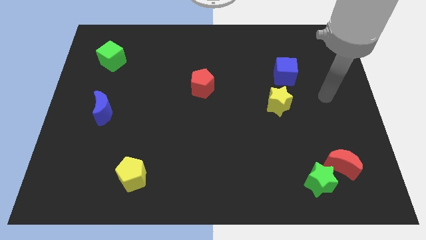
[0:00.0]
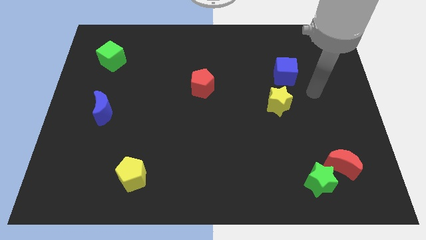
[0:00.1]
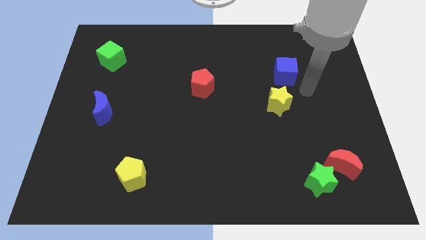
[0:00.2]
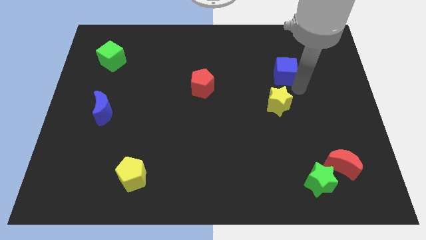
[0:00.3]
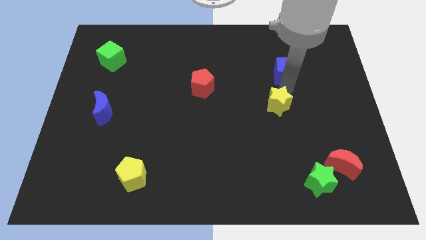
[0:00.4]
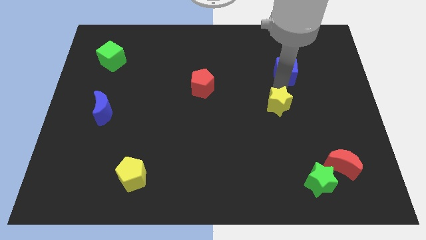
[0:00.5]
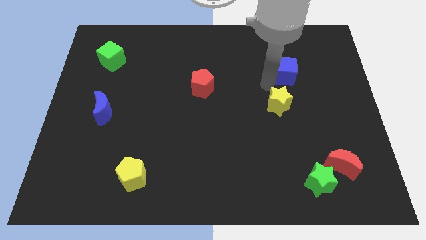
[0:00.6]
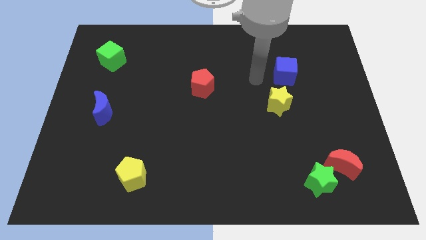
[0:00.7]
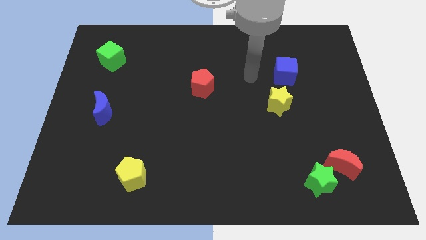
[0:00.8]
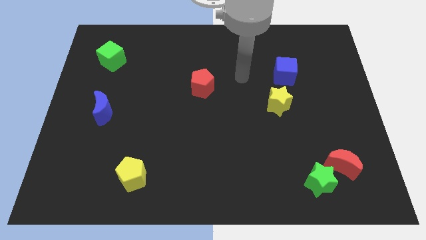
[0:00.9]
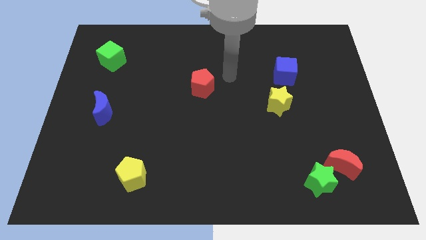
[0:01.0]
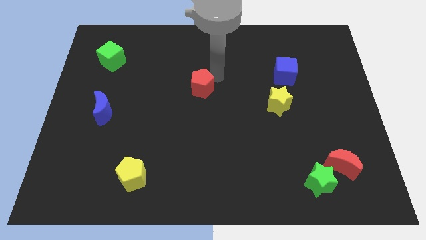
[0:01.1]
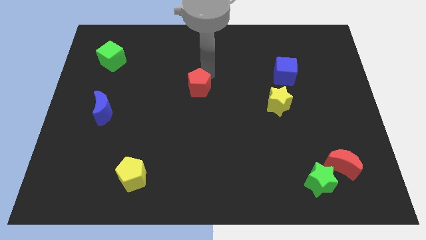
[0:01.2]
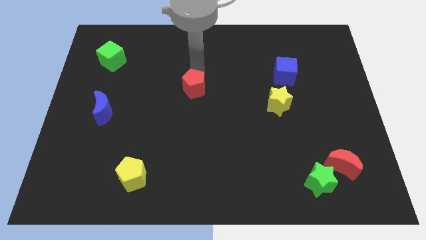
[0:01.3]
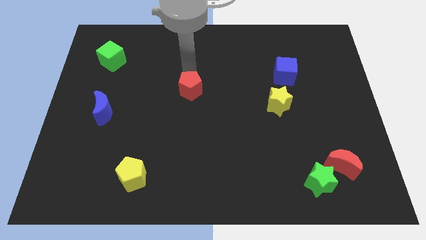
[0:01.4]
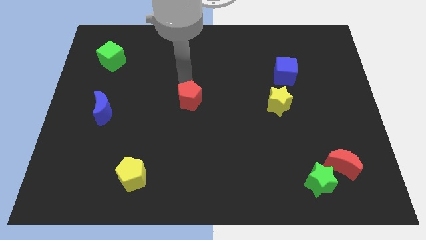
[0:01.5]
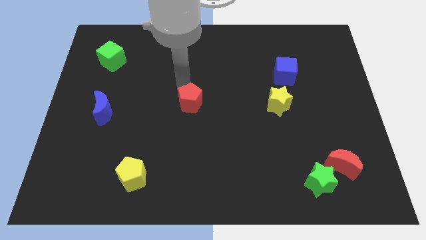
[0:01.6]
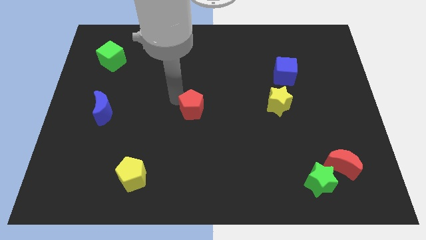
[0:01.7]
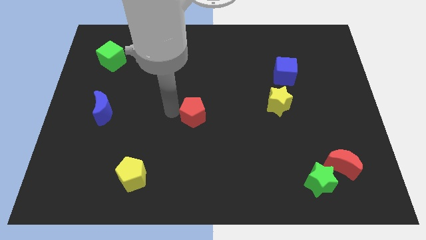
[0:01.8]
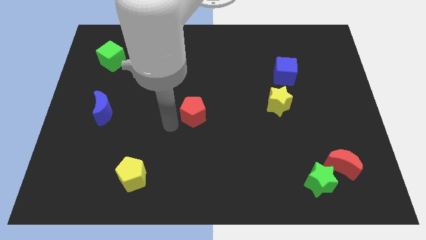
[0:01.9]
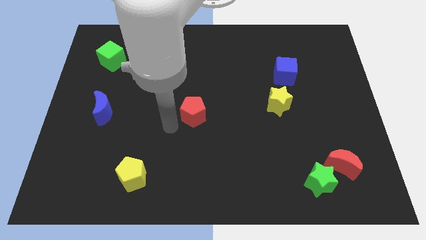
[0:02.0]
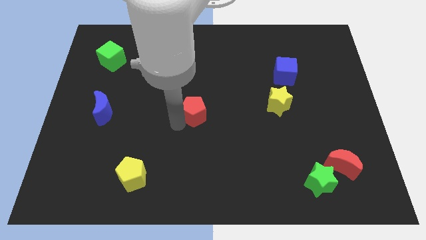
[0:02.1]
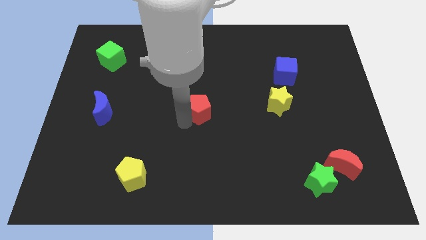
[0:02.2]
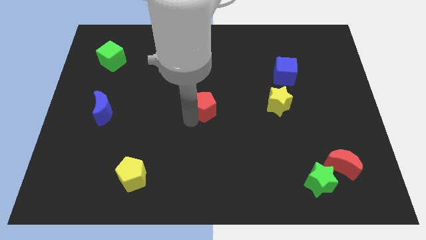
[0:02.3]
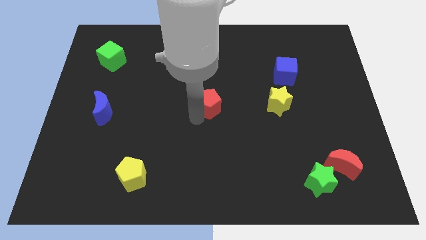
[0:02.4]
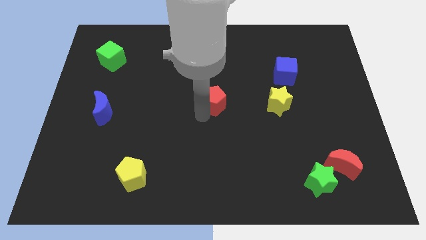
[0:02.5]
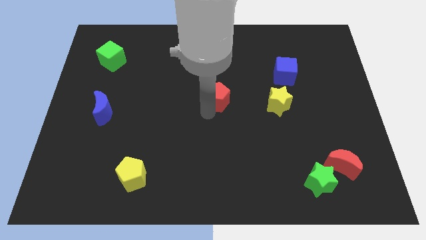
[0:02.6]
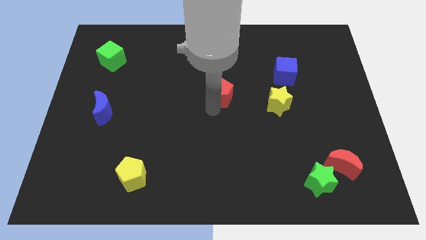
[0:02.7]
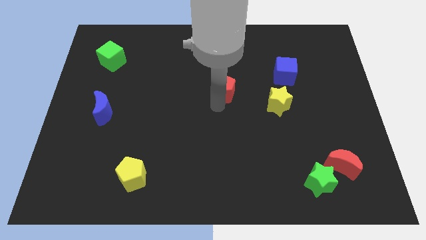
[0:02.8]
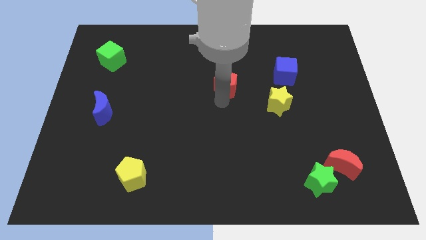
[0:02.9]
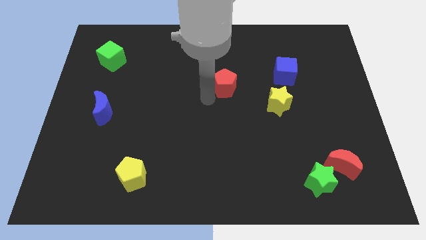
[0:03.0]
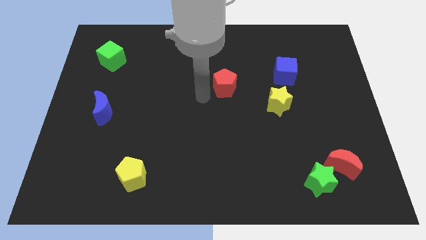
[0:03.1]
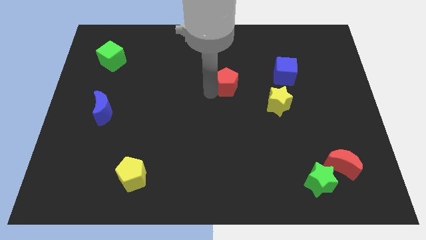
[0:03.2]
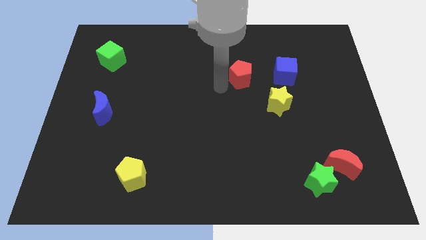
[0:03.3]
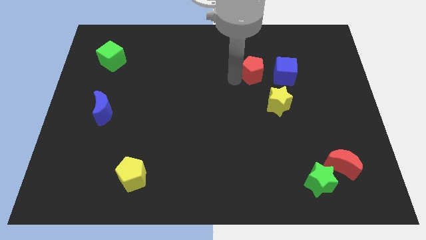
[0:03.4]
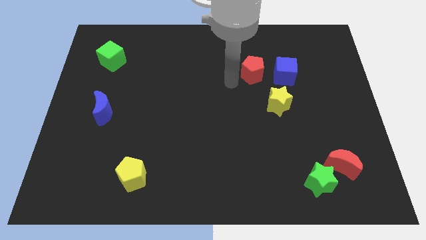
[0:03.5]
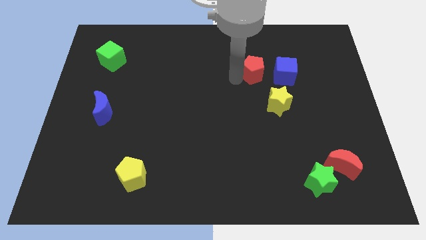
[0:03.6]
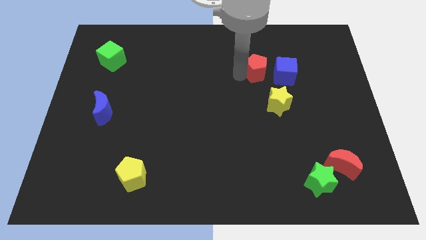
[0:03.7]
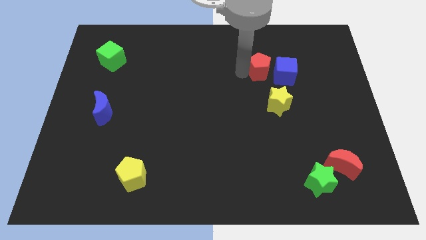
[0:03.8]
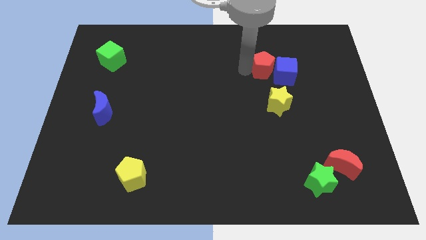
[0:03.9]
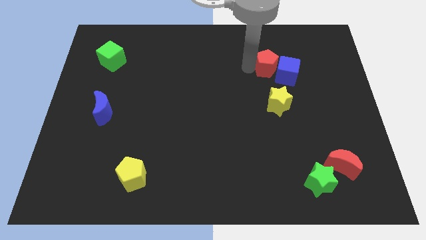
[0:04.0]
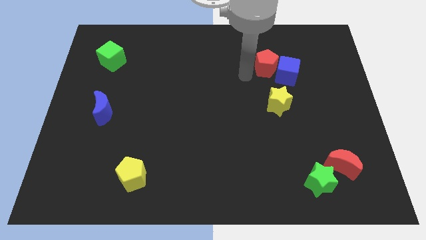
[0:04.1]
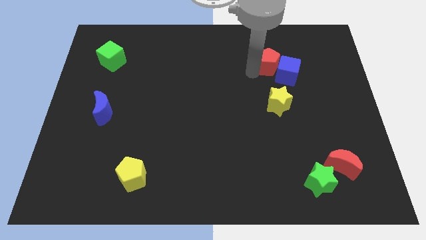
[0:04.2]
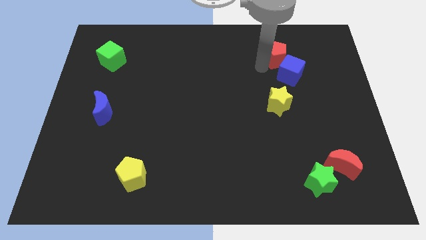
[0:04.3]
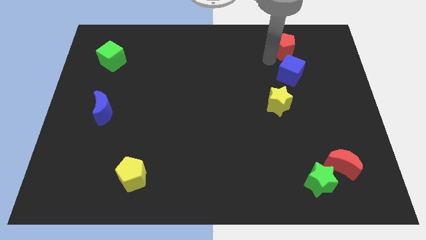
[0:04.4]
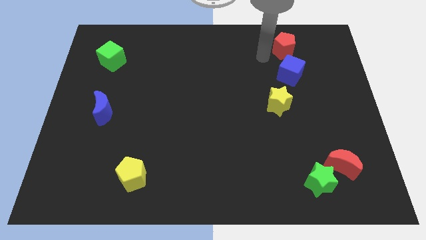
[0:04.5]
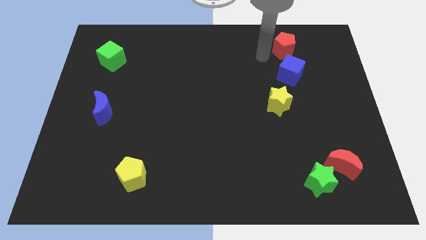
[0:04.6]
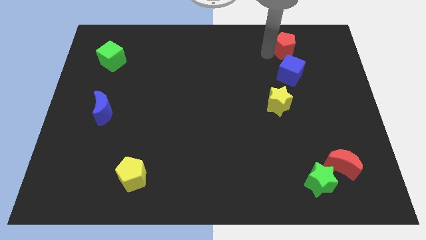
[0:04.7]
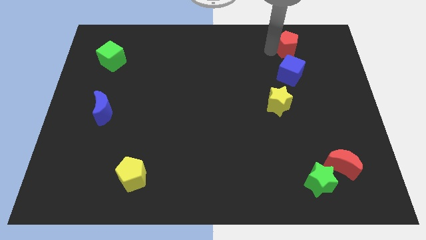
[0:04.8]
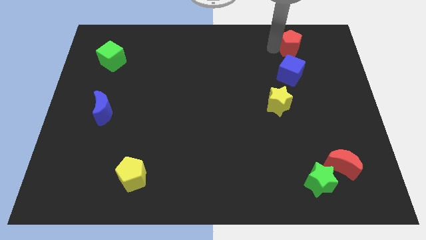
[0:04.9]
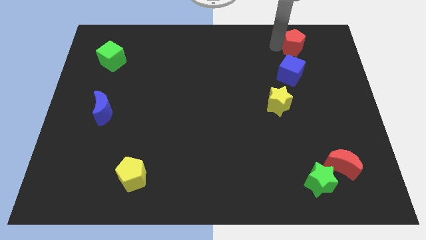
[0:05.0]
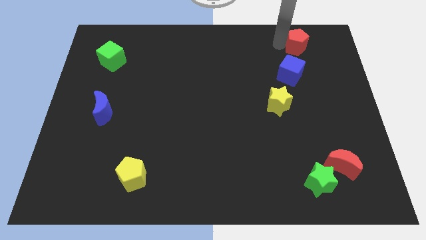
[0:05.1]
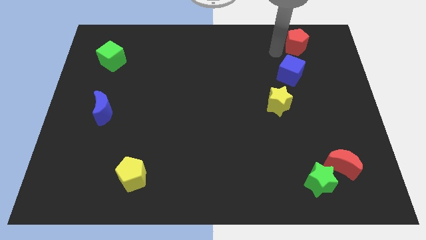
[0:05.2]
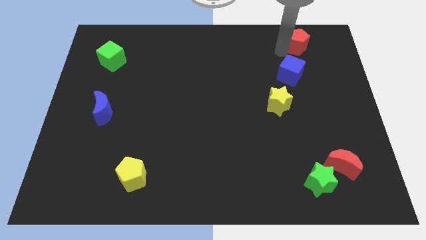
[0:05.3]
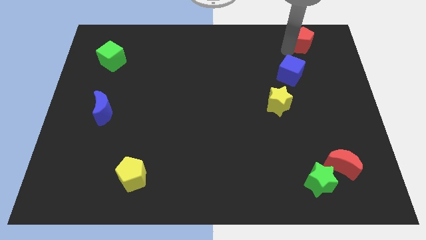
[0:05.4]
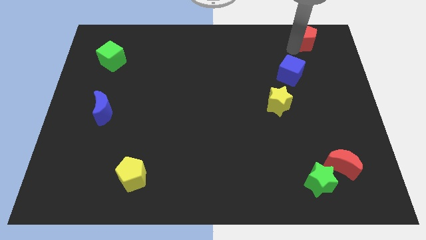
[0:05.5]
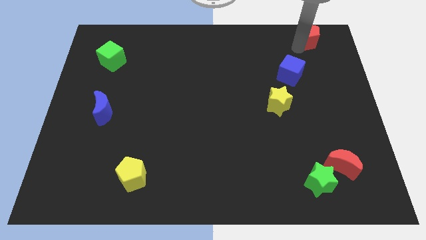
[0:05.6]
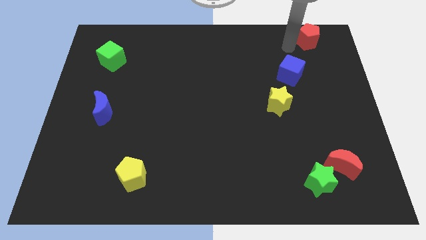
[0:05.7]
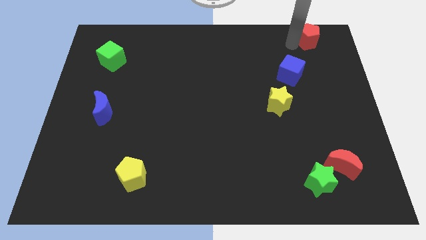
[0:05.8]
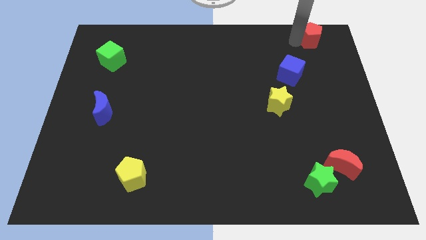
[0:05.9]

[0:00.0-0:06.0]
put the red pentagon to the top right
